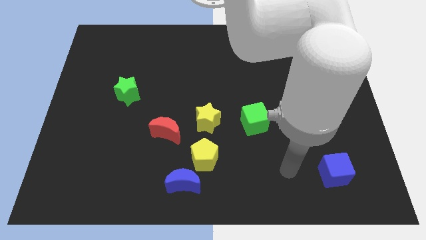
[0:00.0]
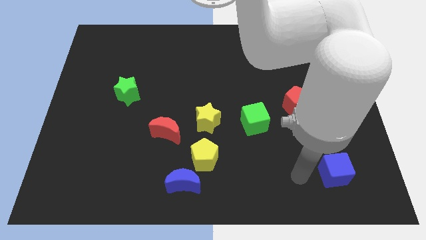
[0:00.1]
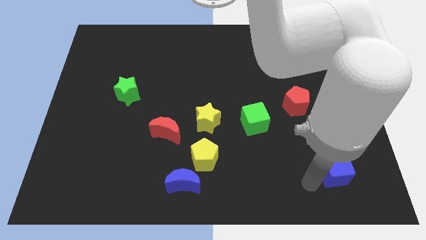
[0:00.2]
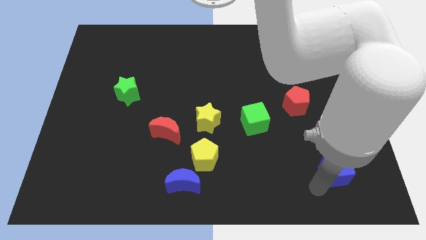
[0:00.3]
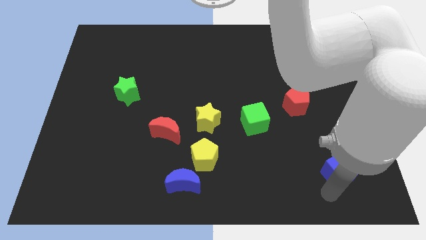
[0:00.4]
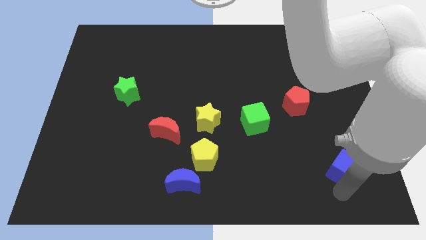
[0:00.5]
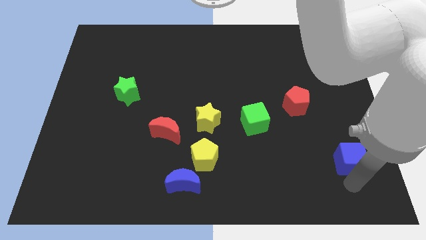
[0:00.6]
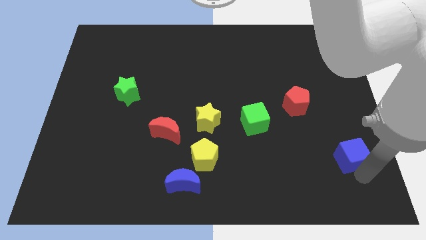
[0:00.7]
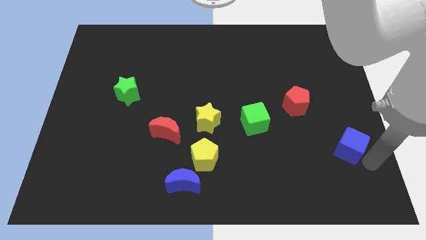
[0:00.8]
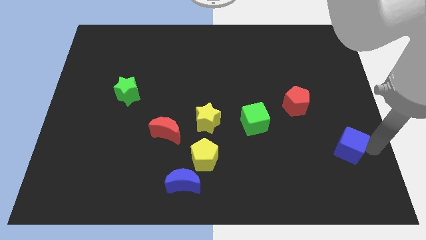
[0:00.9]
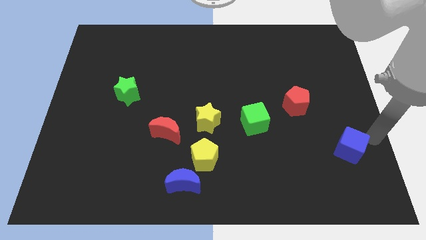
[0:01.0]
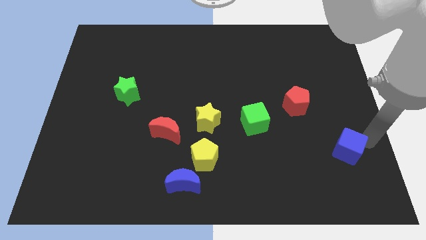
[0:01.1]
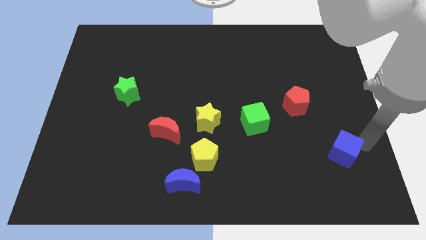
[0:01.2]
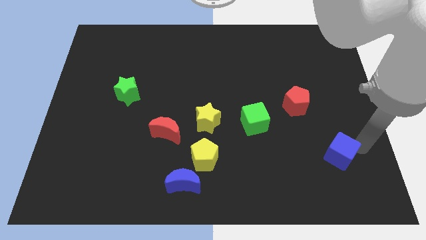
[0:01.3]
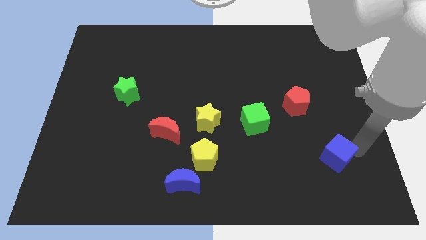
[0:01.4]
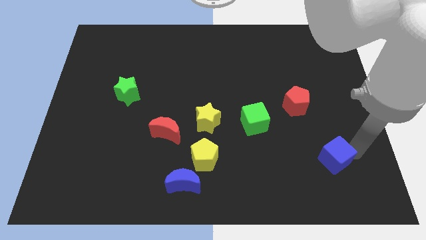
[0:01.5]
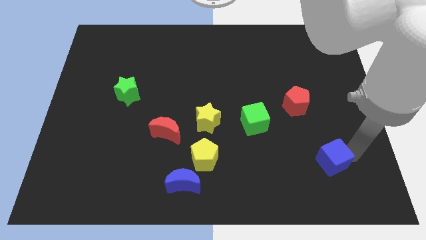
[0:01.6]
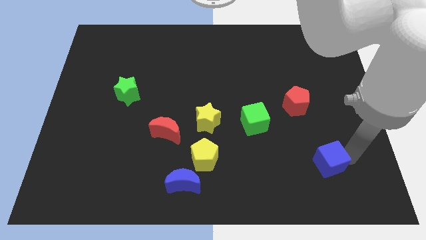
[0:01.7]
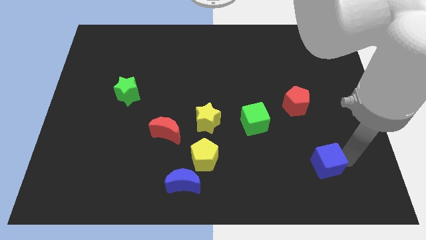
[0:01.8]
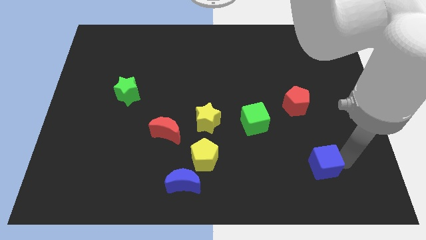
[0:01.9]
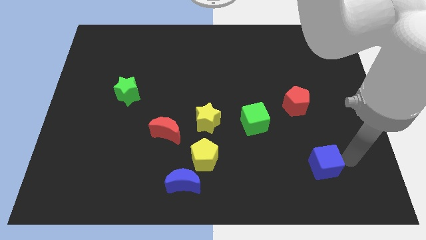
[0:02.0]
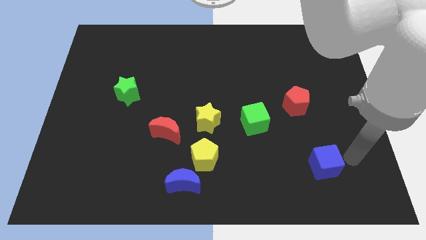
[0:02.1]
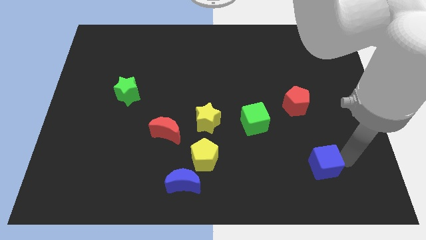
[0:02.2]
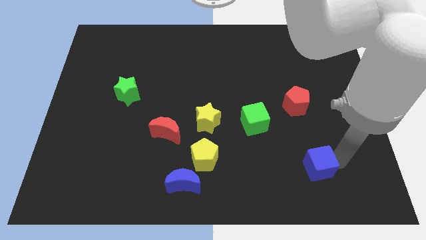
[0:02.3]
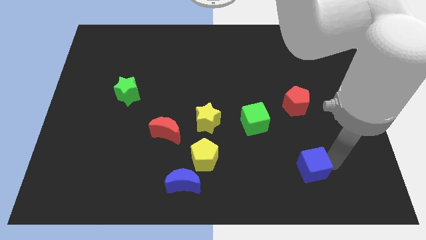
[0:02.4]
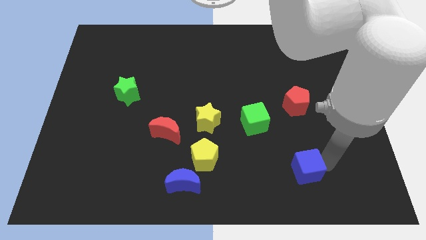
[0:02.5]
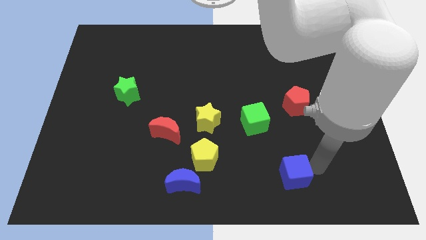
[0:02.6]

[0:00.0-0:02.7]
slightly move the blue cube to the left

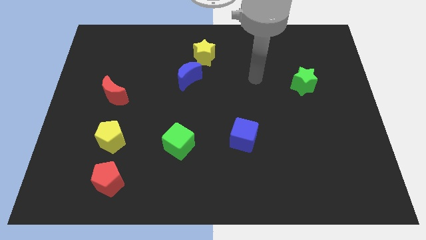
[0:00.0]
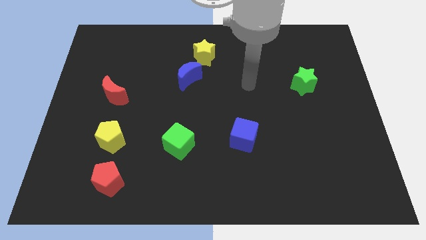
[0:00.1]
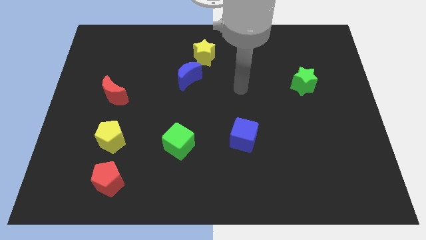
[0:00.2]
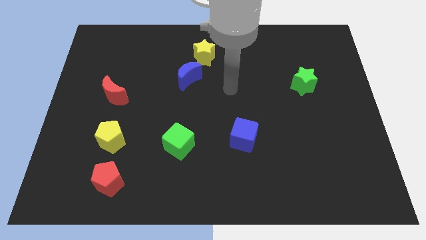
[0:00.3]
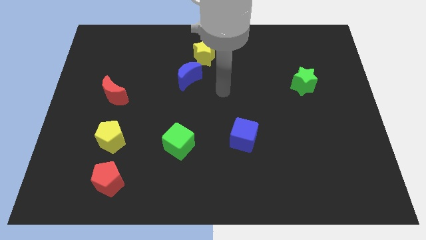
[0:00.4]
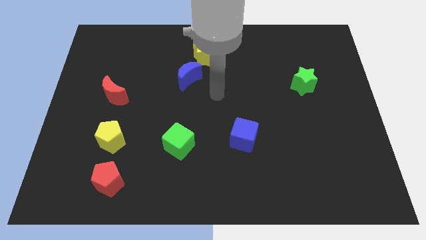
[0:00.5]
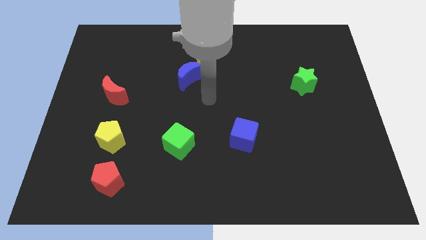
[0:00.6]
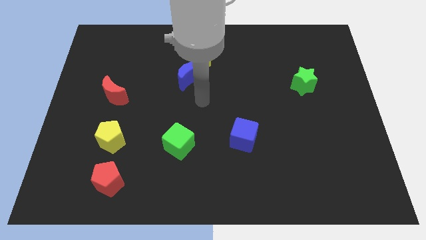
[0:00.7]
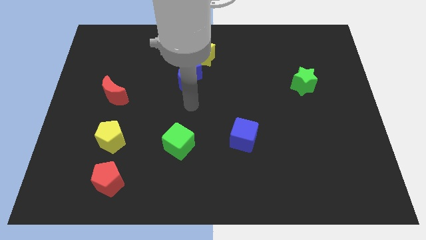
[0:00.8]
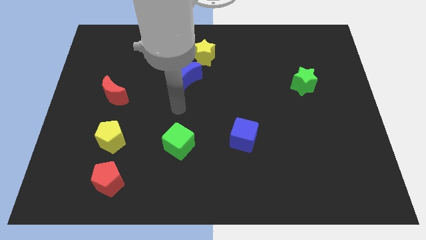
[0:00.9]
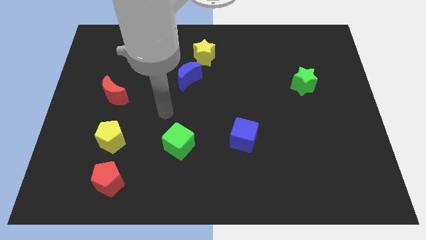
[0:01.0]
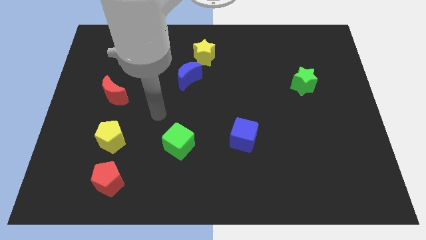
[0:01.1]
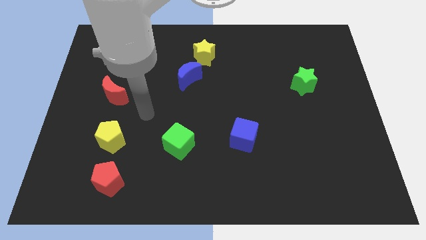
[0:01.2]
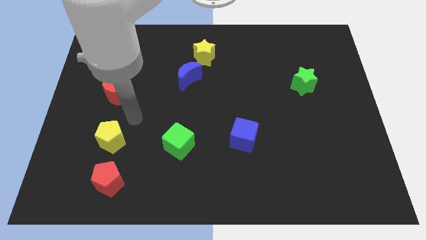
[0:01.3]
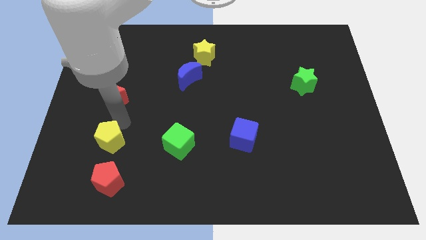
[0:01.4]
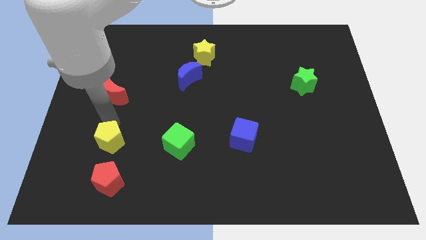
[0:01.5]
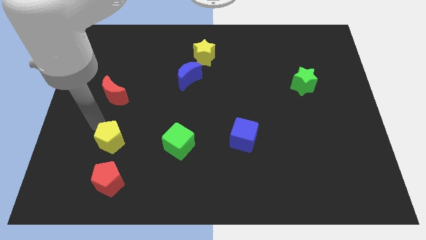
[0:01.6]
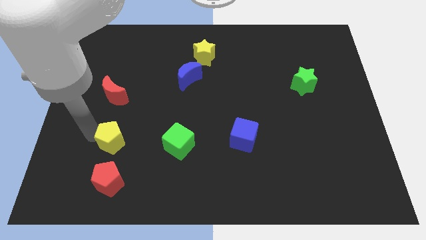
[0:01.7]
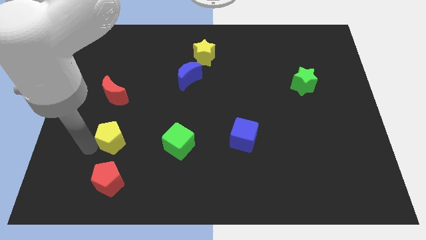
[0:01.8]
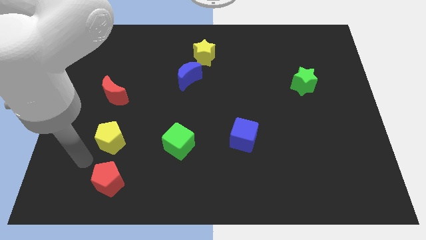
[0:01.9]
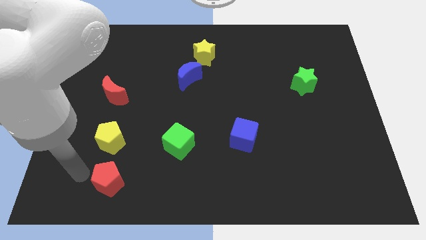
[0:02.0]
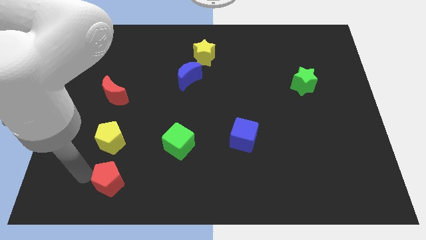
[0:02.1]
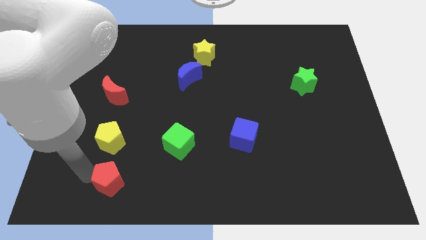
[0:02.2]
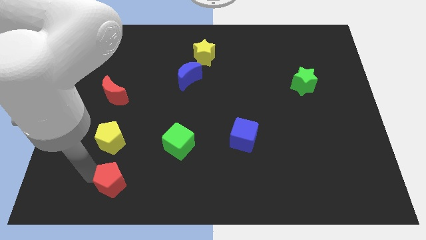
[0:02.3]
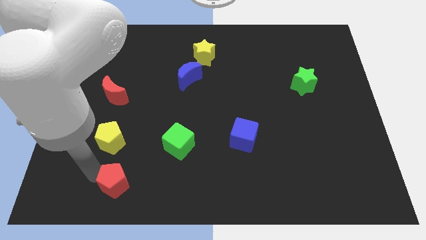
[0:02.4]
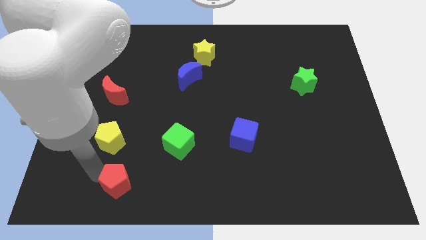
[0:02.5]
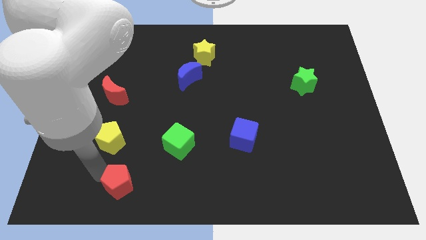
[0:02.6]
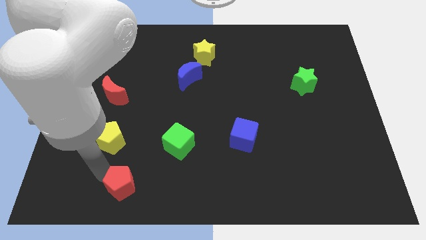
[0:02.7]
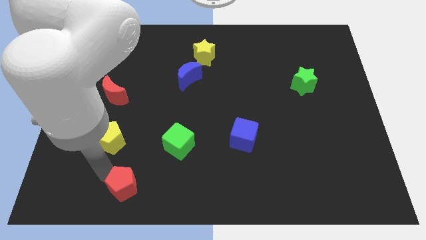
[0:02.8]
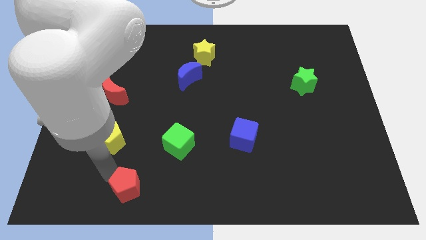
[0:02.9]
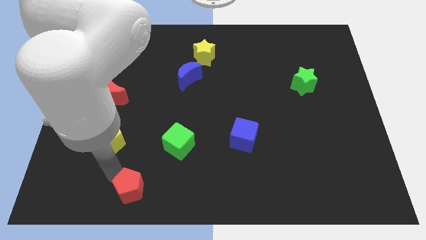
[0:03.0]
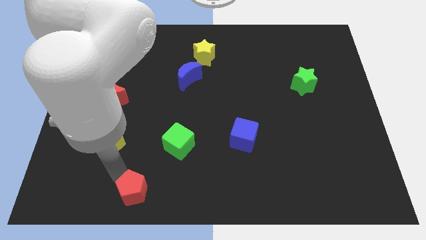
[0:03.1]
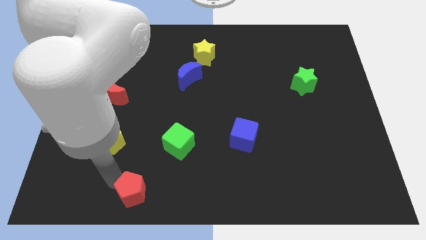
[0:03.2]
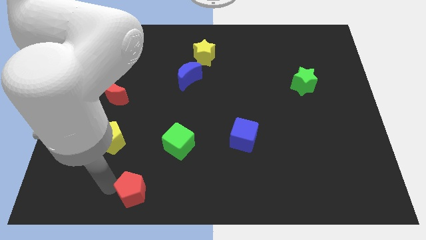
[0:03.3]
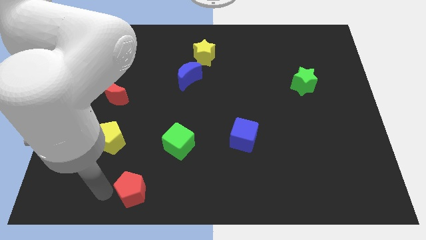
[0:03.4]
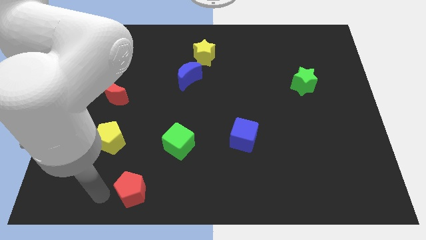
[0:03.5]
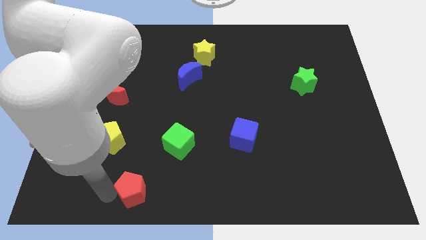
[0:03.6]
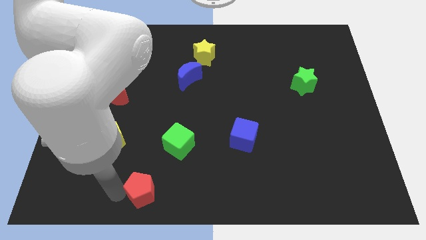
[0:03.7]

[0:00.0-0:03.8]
move the red pentagon to the right somewhat

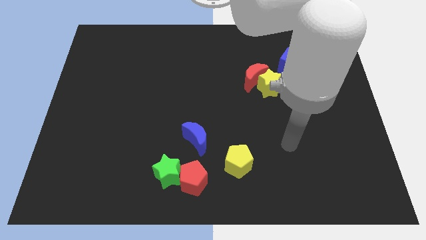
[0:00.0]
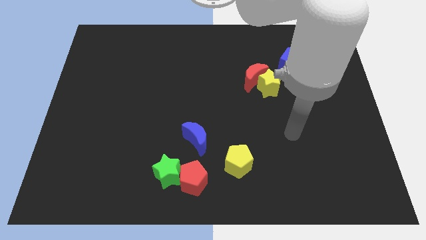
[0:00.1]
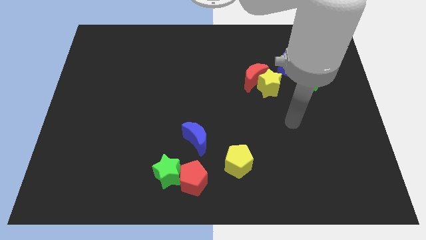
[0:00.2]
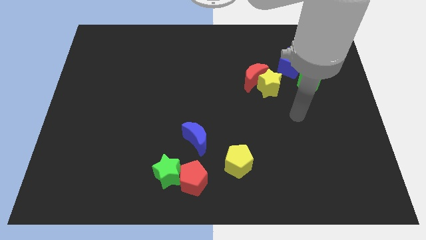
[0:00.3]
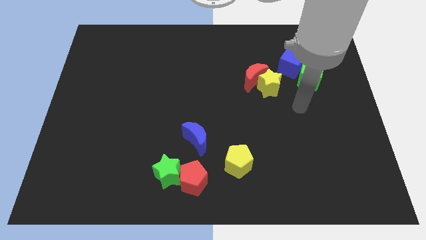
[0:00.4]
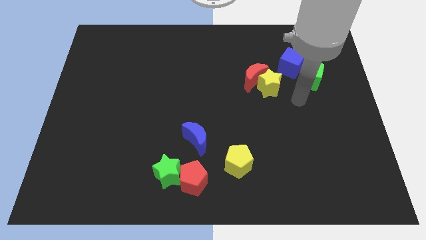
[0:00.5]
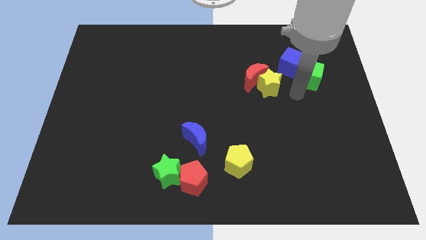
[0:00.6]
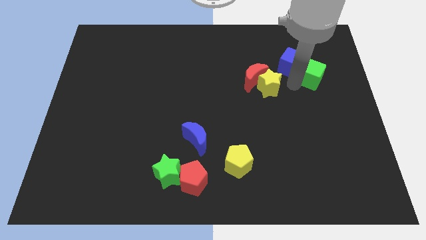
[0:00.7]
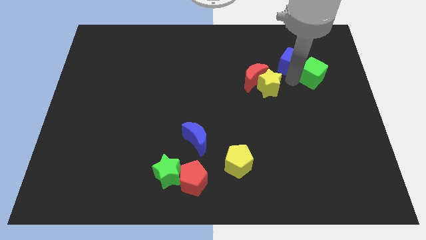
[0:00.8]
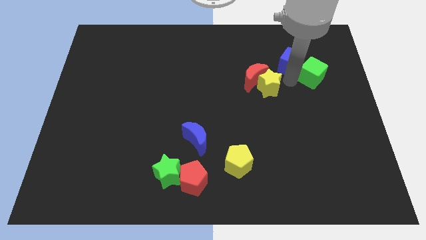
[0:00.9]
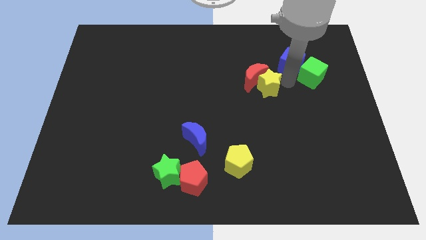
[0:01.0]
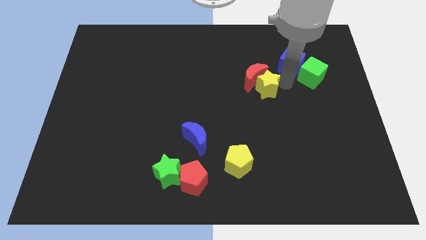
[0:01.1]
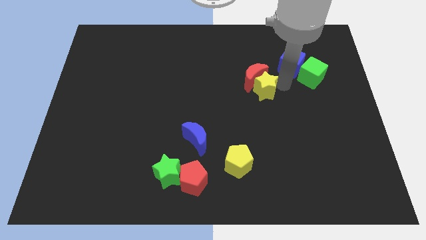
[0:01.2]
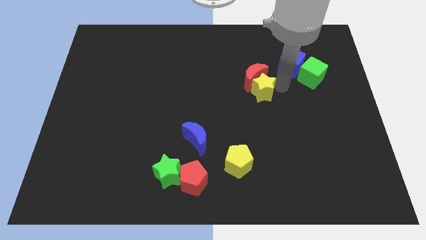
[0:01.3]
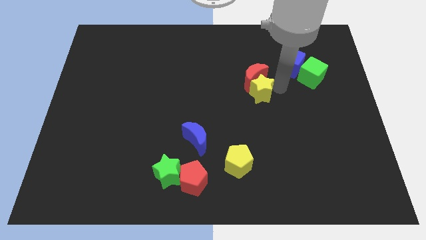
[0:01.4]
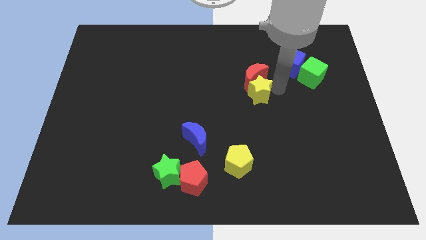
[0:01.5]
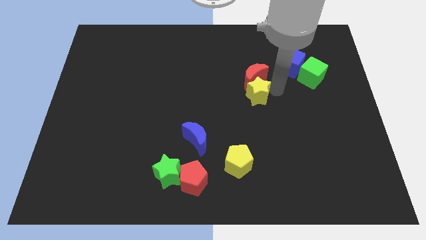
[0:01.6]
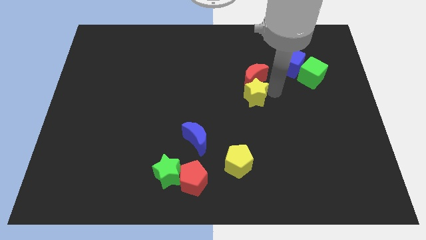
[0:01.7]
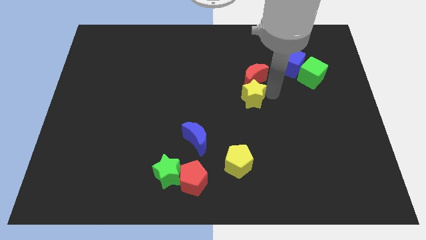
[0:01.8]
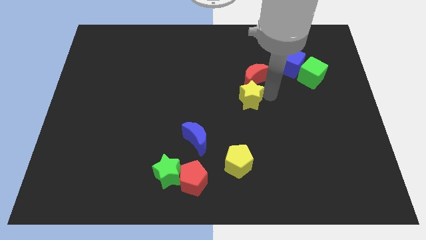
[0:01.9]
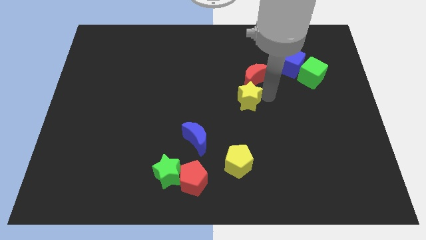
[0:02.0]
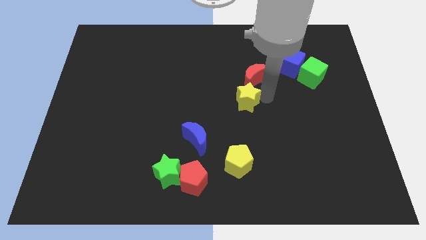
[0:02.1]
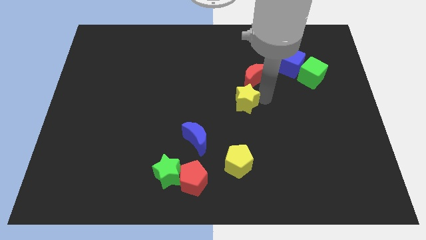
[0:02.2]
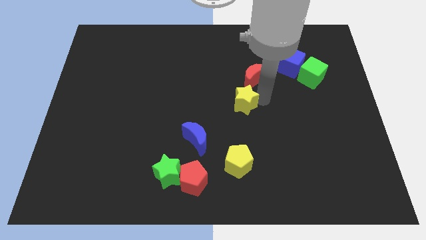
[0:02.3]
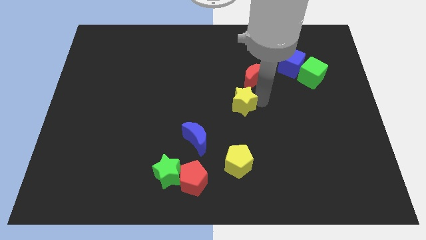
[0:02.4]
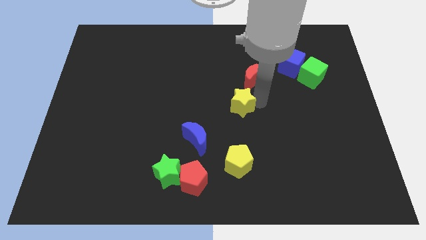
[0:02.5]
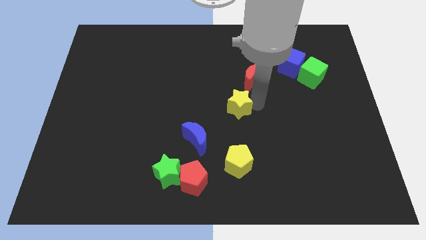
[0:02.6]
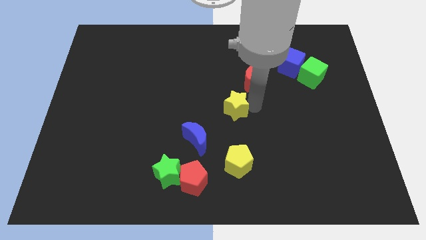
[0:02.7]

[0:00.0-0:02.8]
slightly push the yellow star left
